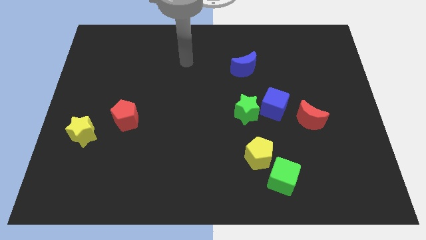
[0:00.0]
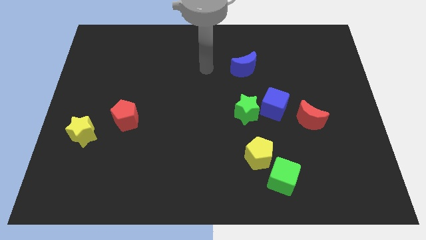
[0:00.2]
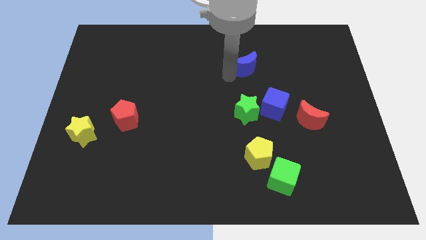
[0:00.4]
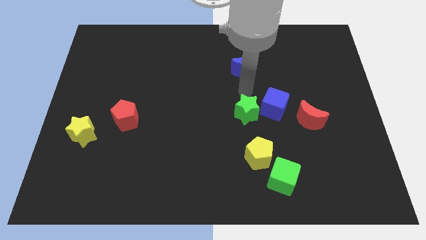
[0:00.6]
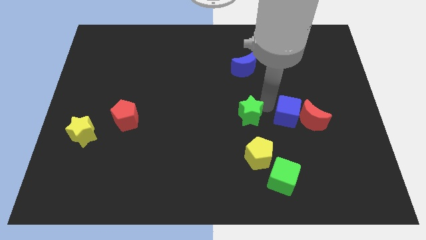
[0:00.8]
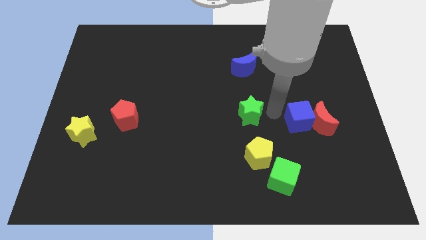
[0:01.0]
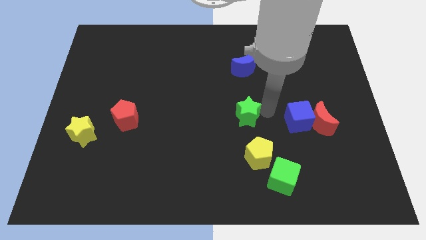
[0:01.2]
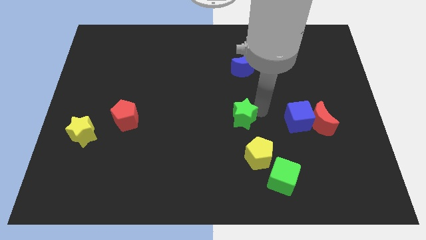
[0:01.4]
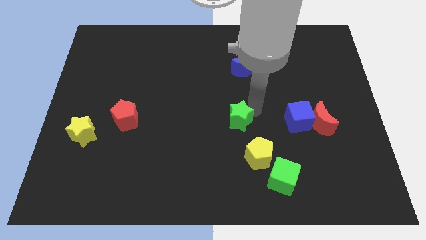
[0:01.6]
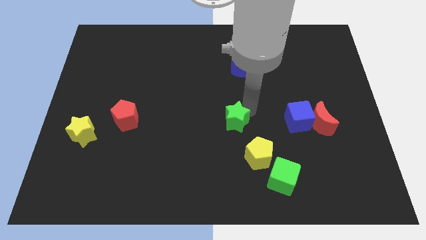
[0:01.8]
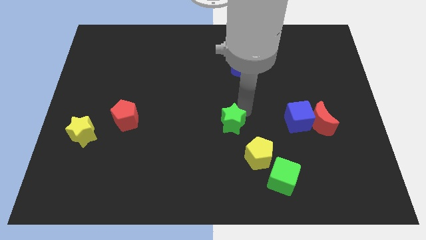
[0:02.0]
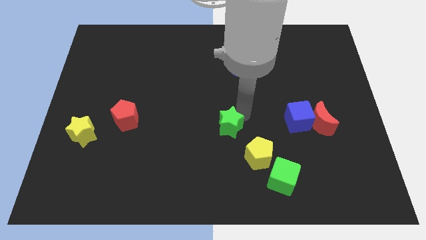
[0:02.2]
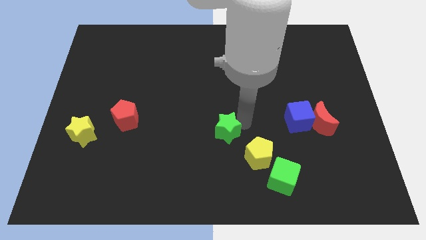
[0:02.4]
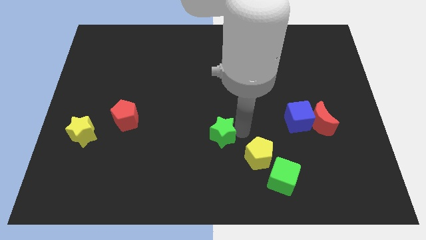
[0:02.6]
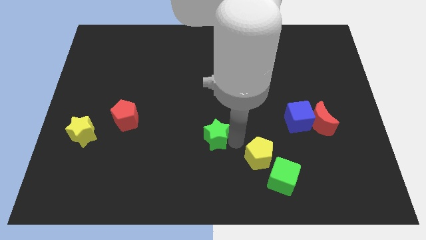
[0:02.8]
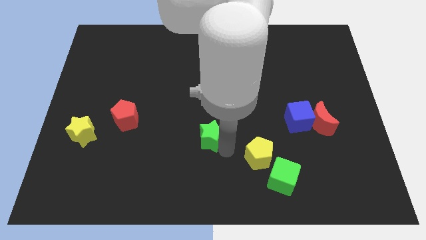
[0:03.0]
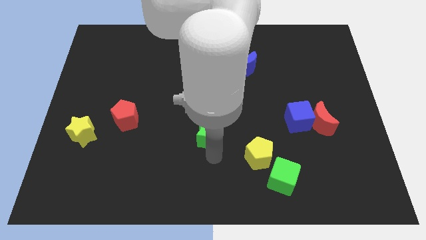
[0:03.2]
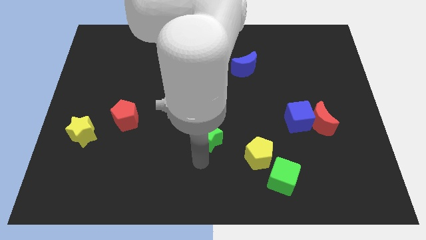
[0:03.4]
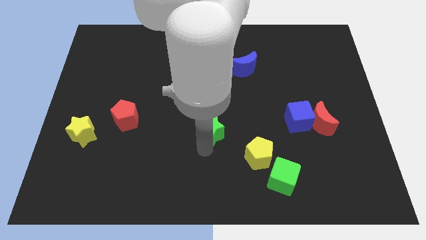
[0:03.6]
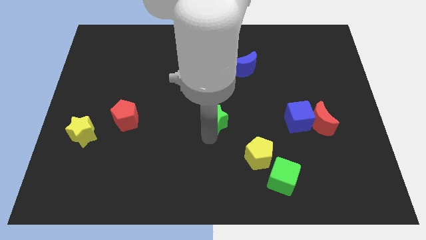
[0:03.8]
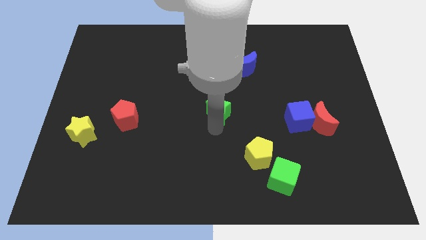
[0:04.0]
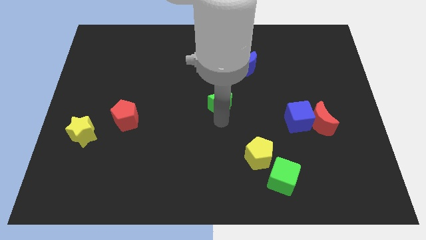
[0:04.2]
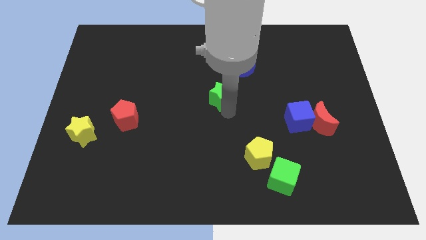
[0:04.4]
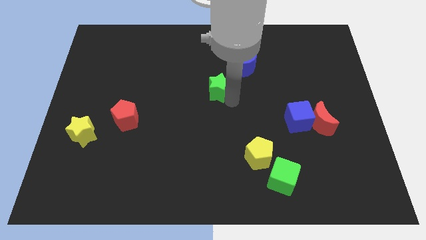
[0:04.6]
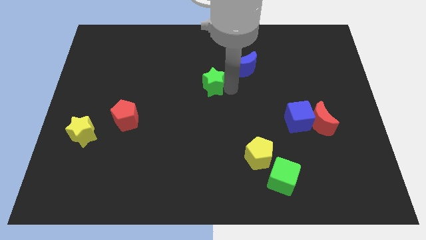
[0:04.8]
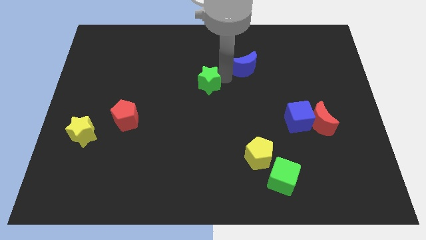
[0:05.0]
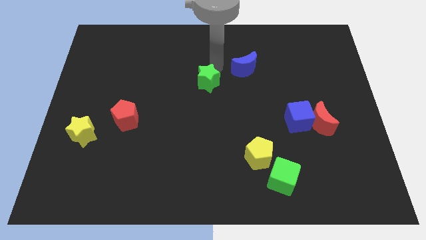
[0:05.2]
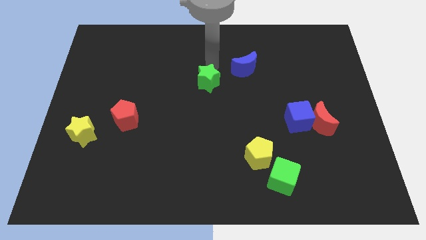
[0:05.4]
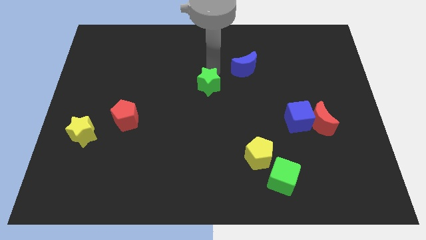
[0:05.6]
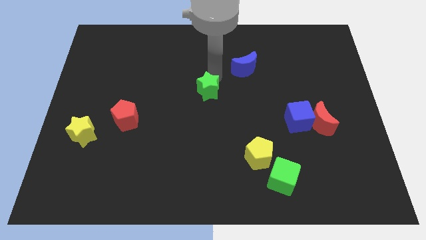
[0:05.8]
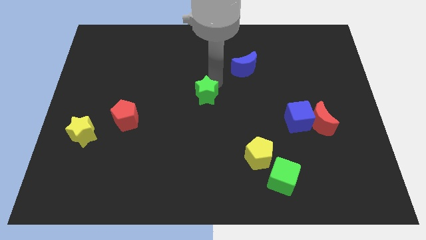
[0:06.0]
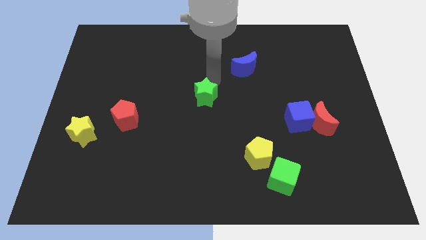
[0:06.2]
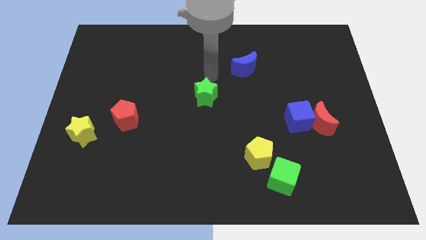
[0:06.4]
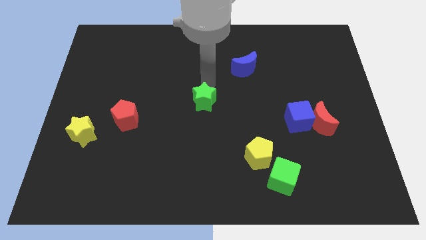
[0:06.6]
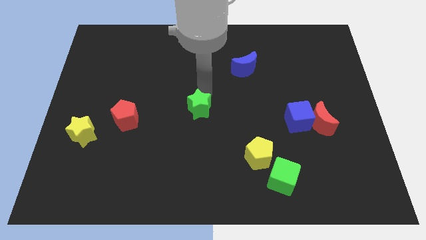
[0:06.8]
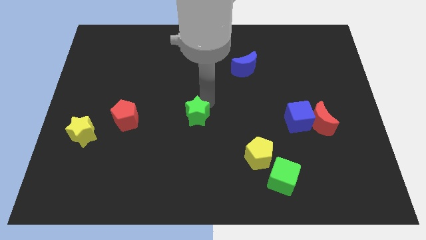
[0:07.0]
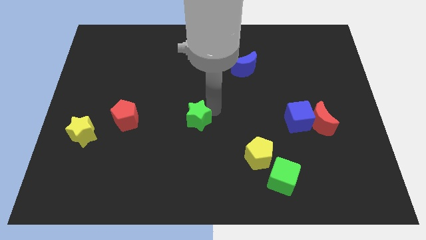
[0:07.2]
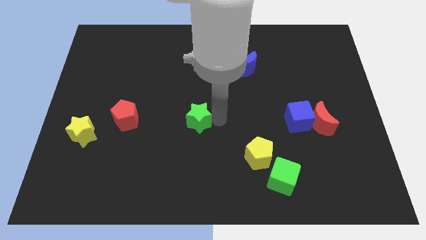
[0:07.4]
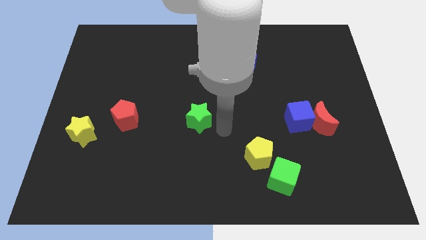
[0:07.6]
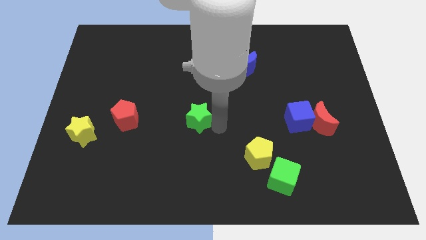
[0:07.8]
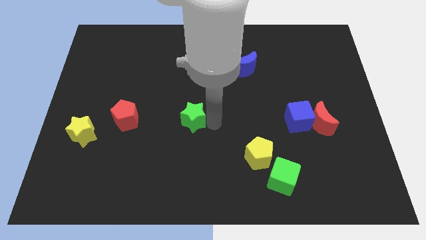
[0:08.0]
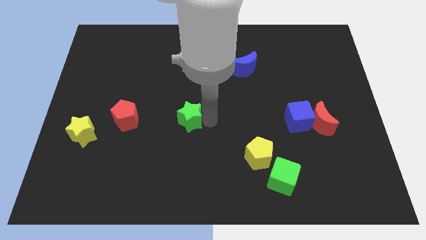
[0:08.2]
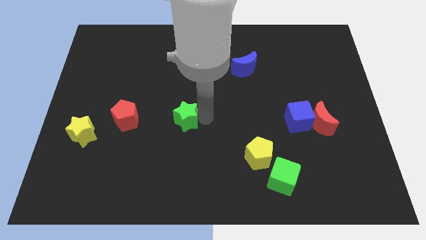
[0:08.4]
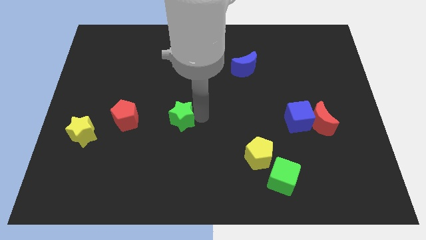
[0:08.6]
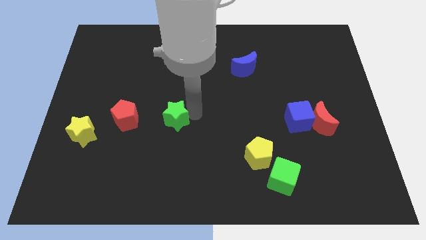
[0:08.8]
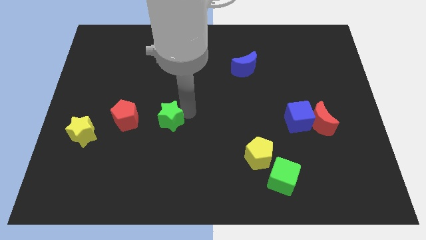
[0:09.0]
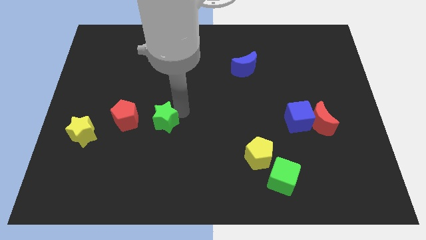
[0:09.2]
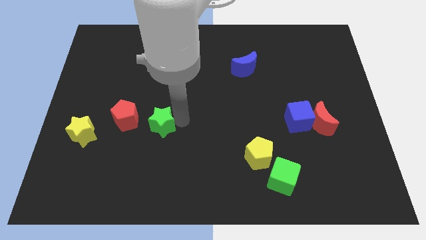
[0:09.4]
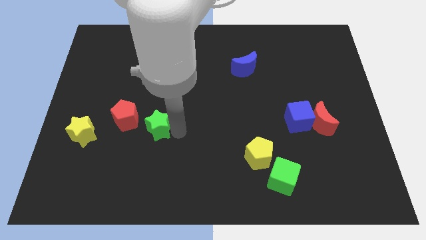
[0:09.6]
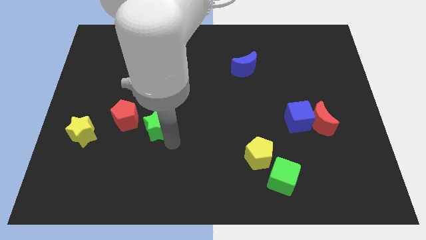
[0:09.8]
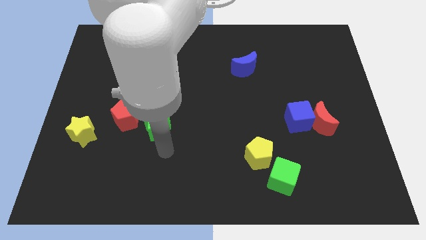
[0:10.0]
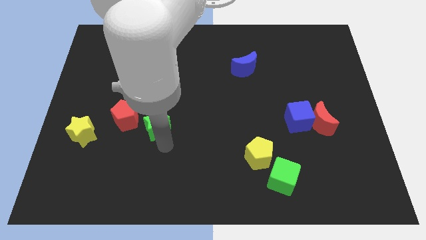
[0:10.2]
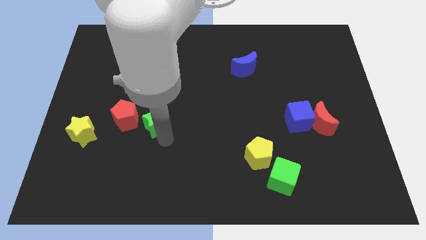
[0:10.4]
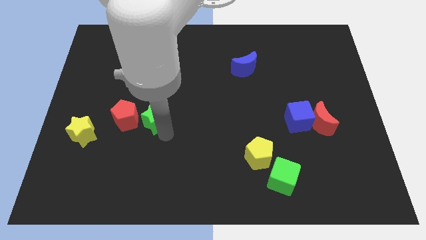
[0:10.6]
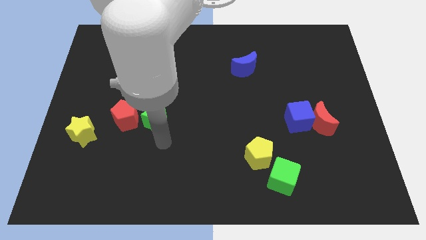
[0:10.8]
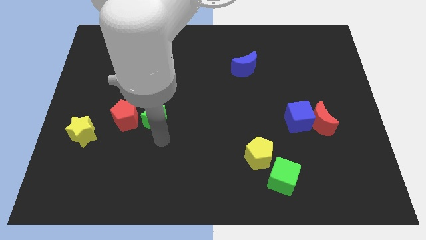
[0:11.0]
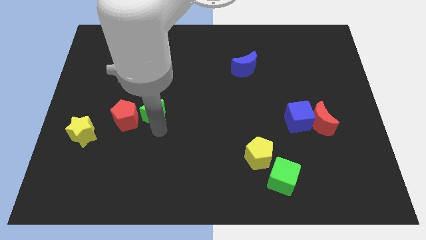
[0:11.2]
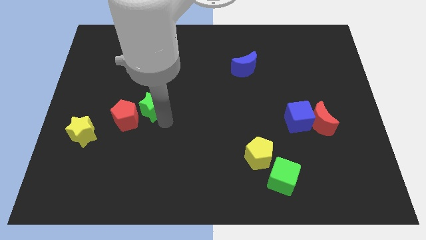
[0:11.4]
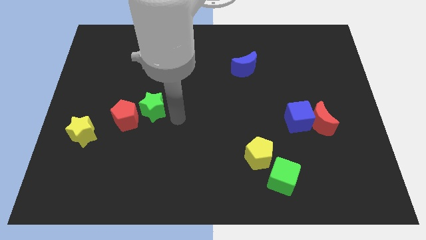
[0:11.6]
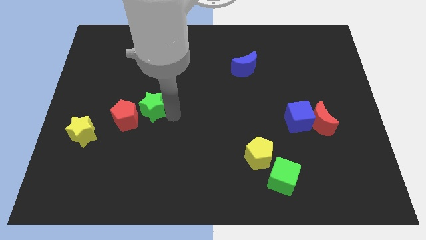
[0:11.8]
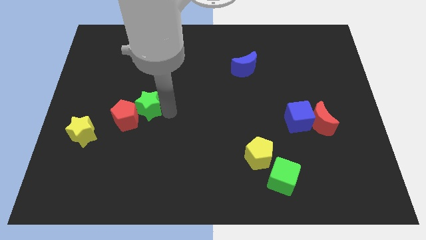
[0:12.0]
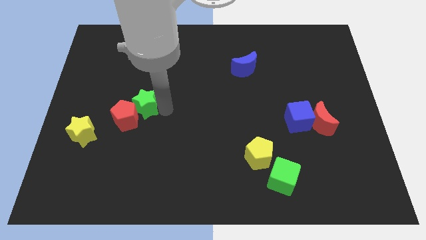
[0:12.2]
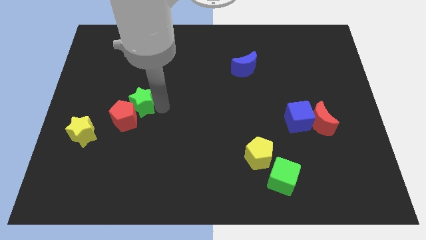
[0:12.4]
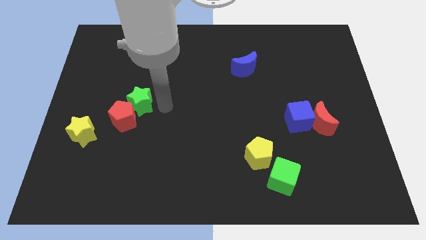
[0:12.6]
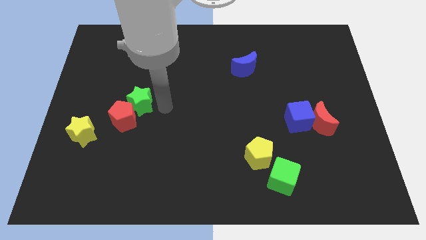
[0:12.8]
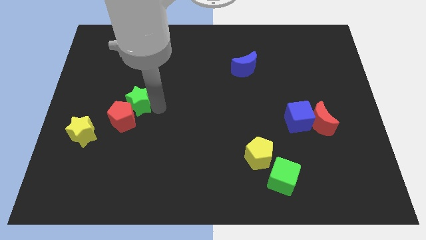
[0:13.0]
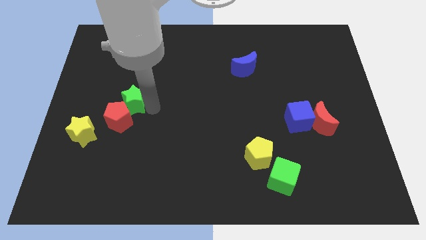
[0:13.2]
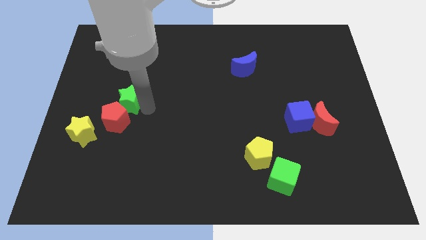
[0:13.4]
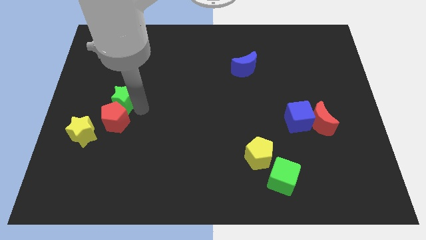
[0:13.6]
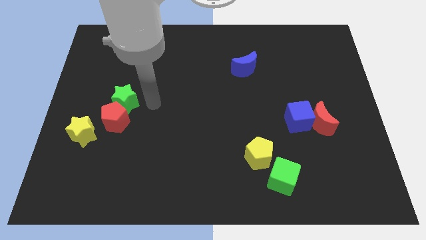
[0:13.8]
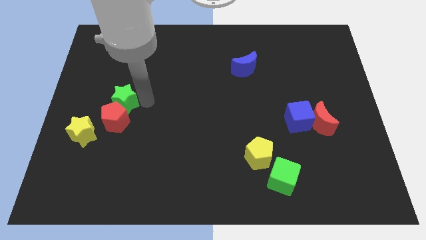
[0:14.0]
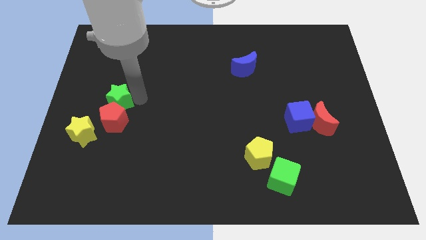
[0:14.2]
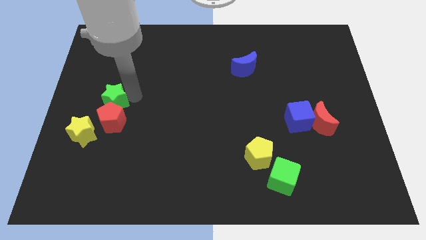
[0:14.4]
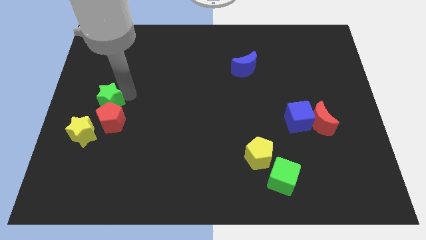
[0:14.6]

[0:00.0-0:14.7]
move the green star above the yellow star
